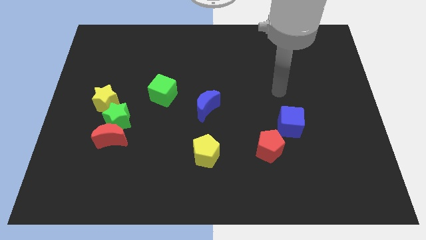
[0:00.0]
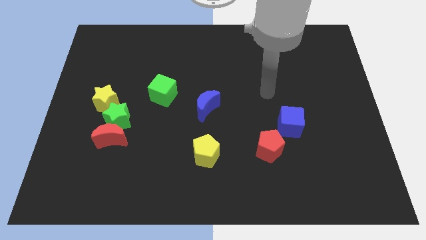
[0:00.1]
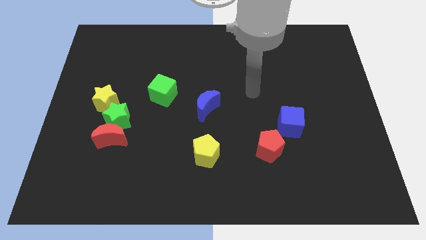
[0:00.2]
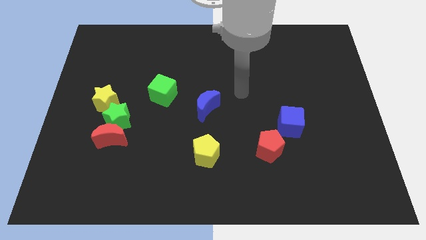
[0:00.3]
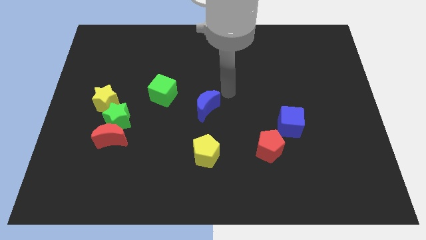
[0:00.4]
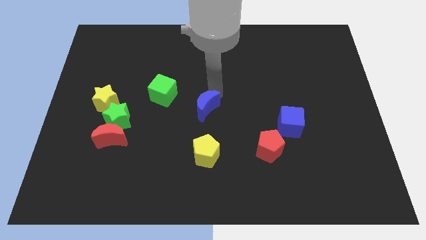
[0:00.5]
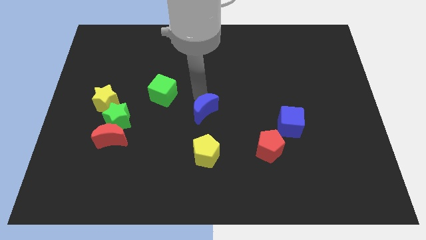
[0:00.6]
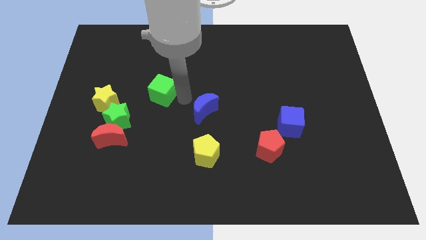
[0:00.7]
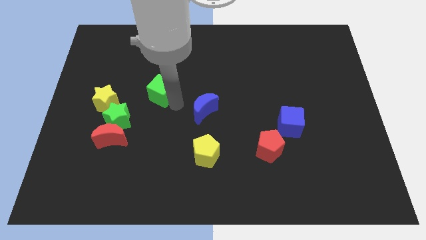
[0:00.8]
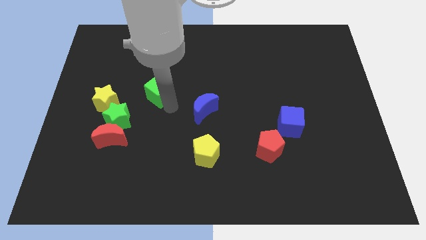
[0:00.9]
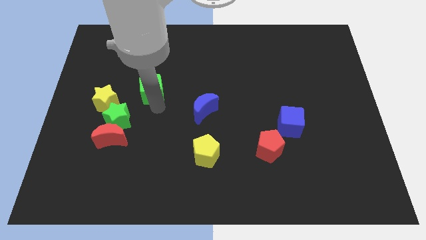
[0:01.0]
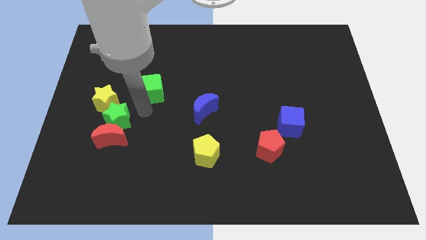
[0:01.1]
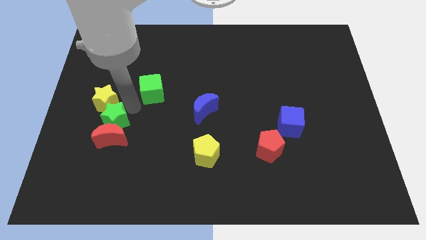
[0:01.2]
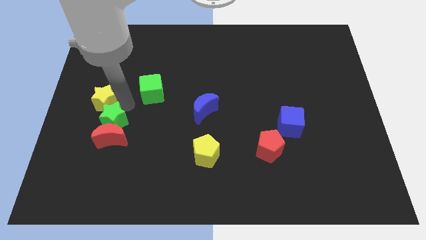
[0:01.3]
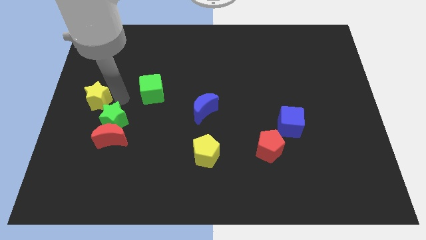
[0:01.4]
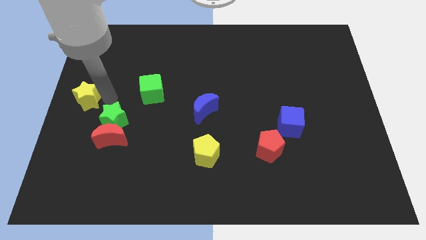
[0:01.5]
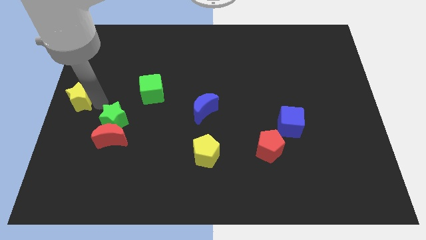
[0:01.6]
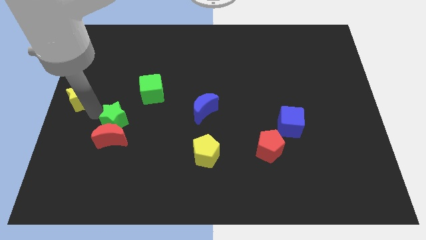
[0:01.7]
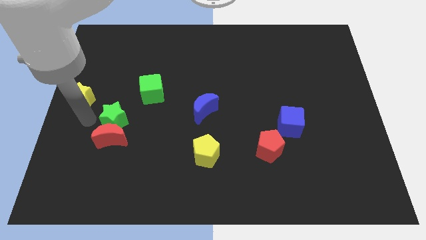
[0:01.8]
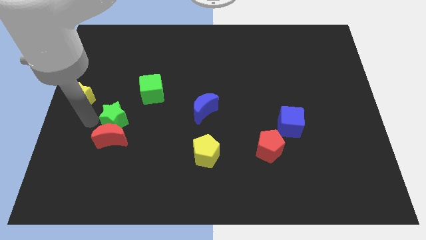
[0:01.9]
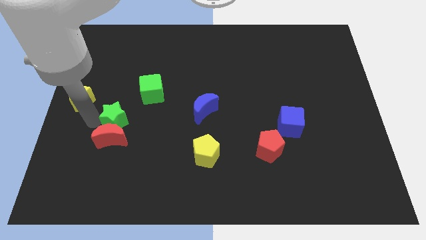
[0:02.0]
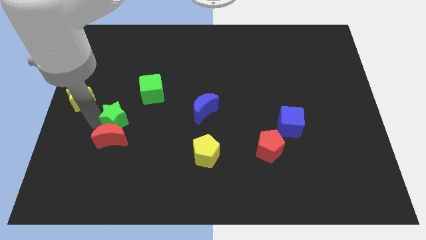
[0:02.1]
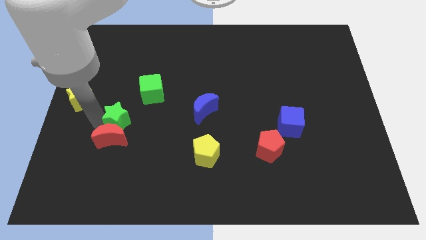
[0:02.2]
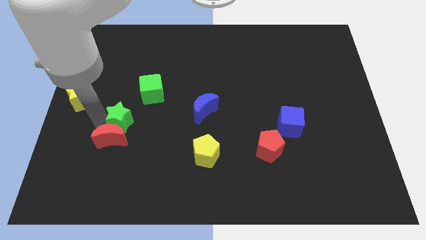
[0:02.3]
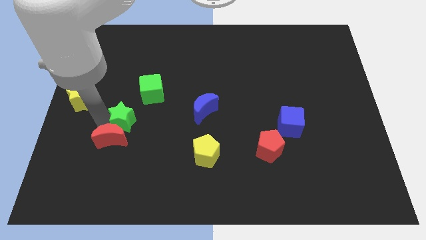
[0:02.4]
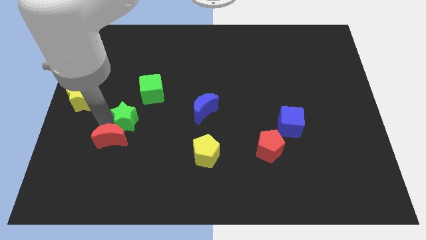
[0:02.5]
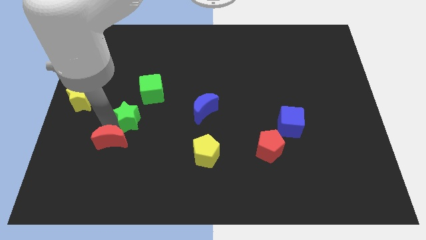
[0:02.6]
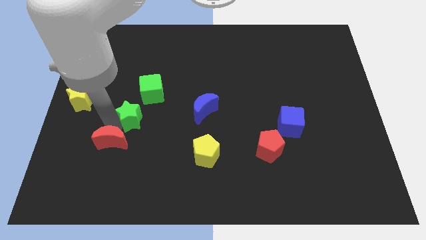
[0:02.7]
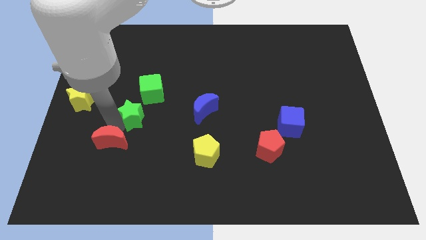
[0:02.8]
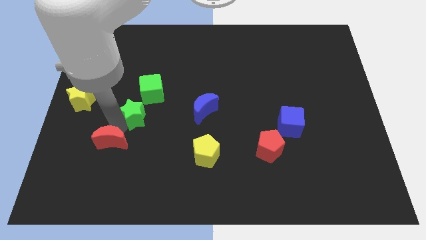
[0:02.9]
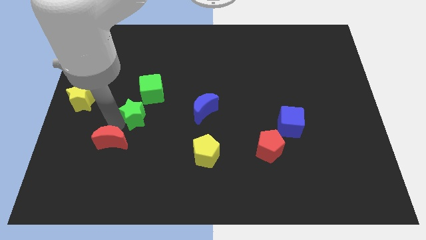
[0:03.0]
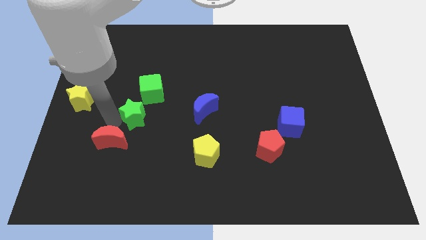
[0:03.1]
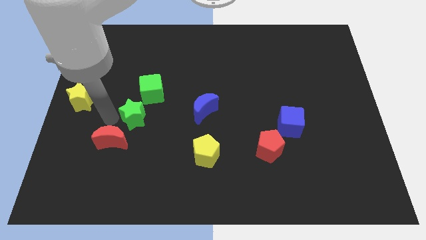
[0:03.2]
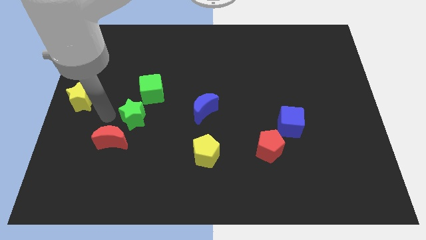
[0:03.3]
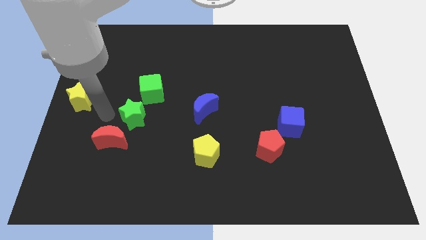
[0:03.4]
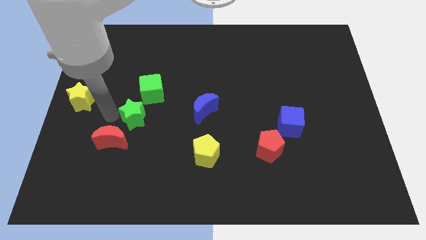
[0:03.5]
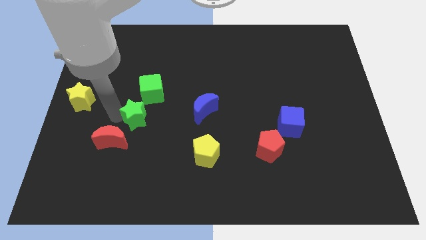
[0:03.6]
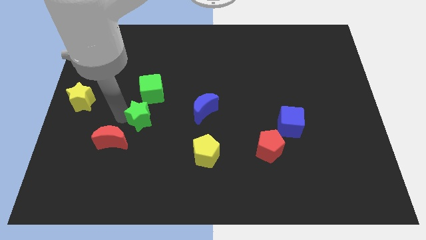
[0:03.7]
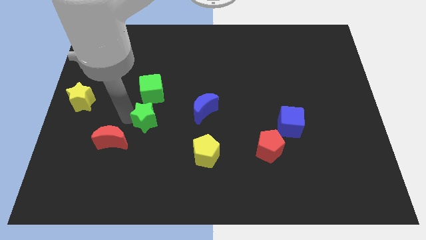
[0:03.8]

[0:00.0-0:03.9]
move the green star away from the red moon and yellow star

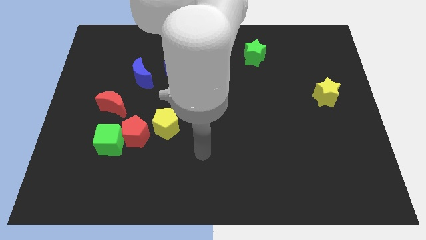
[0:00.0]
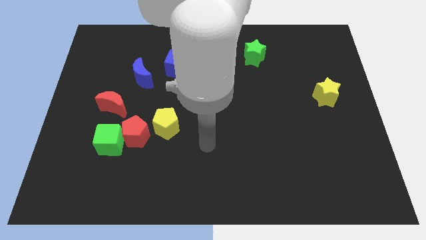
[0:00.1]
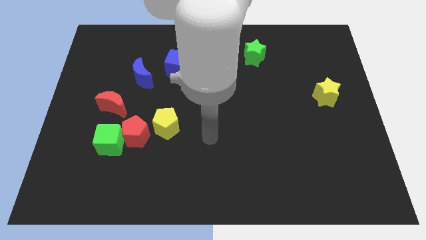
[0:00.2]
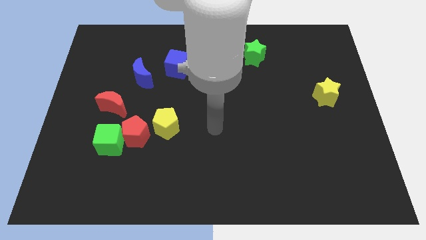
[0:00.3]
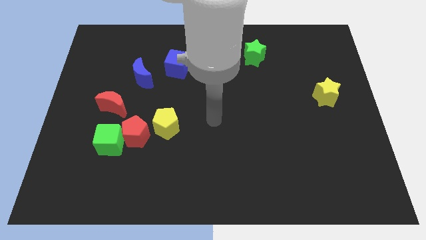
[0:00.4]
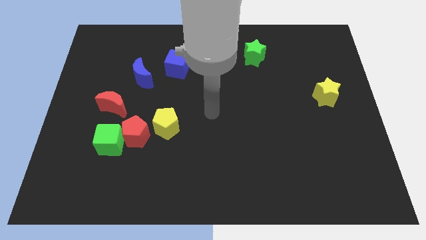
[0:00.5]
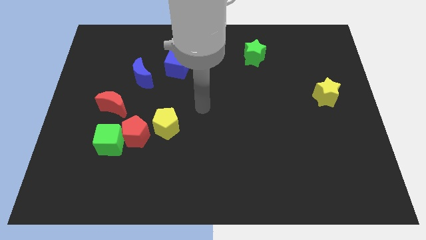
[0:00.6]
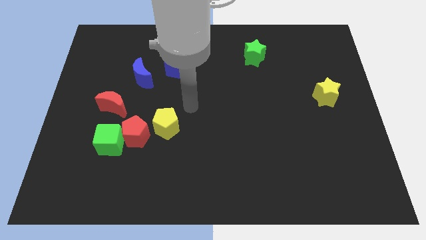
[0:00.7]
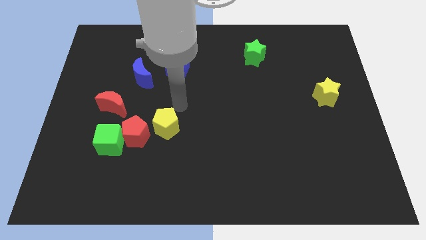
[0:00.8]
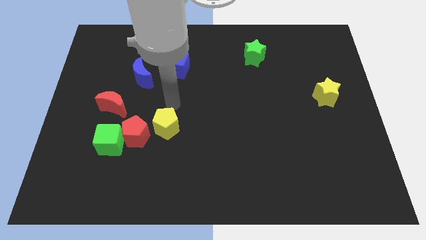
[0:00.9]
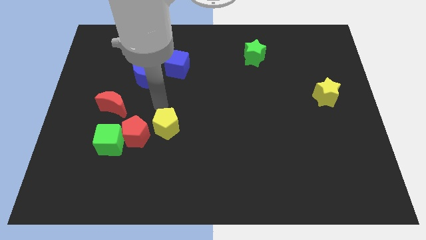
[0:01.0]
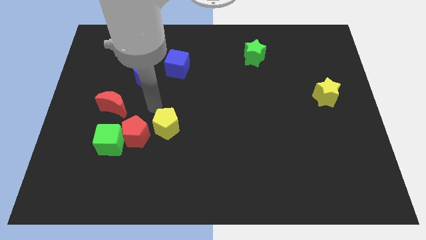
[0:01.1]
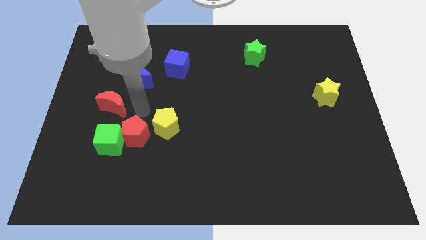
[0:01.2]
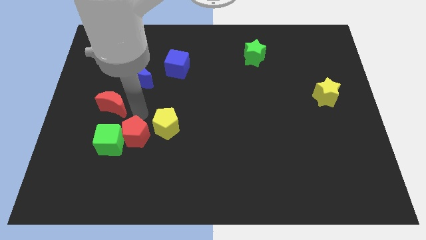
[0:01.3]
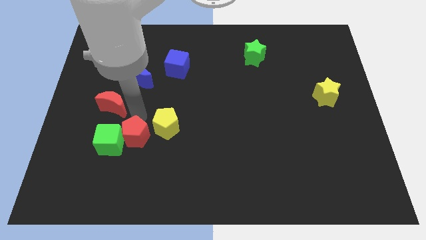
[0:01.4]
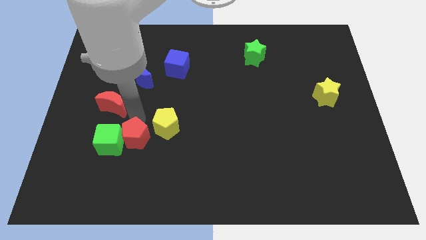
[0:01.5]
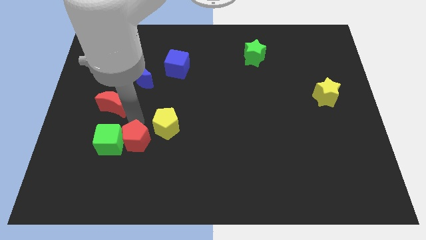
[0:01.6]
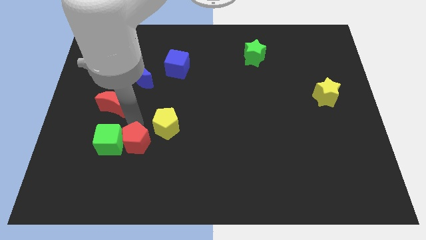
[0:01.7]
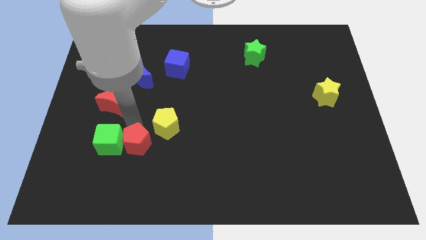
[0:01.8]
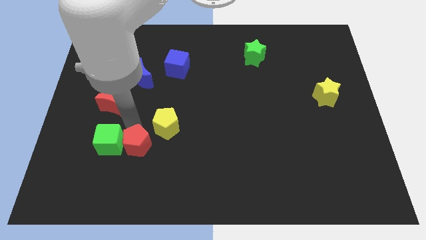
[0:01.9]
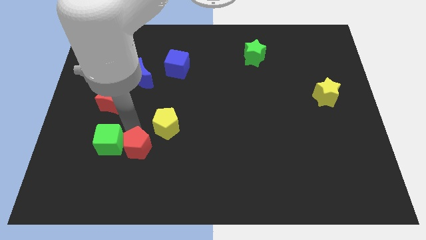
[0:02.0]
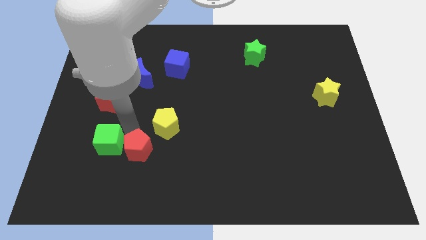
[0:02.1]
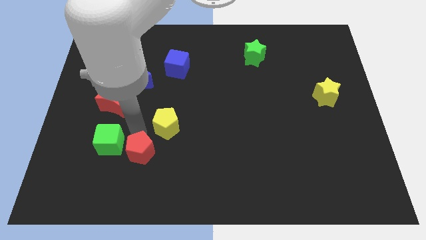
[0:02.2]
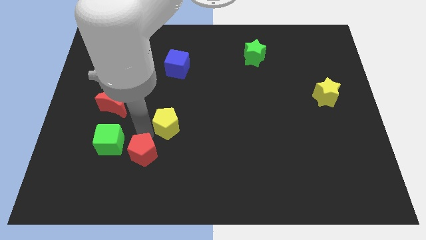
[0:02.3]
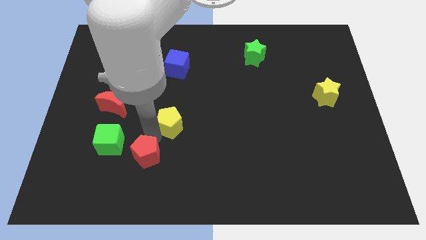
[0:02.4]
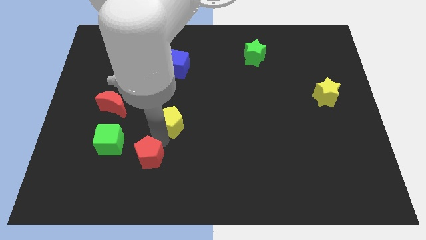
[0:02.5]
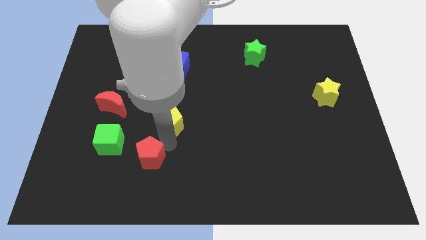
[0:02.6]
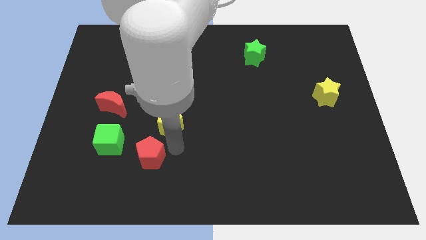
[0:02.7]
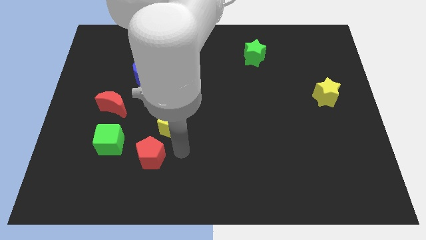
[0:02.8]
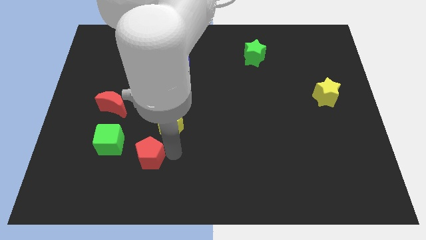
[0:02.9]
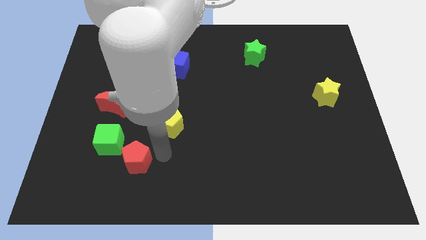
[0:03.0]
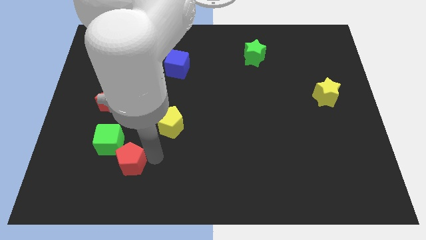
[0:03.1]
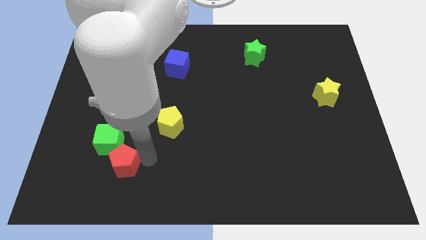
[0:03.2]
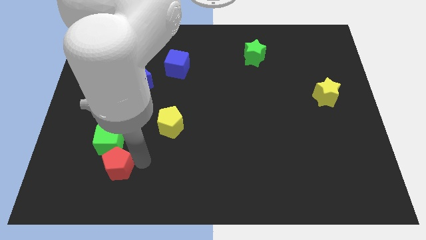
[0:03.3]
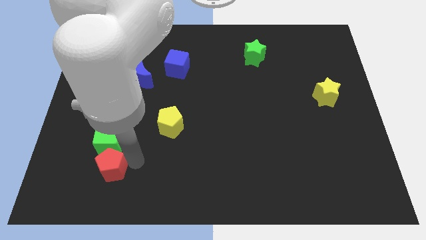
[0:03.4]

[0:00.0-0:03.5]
separate the red pentagon from the green cube and yellow pentagon

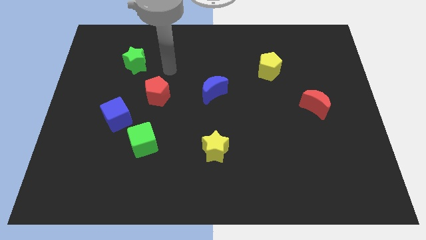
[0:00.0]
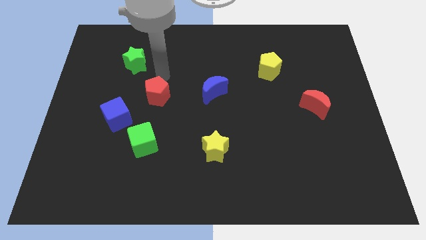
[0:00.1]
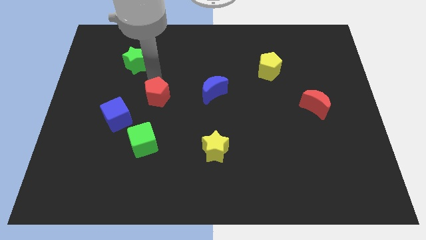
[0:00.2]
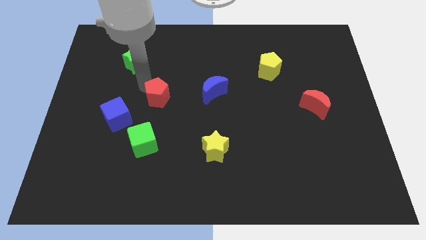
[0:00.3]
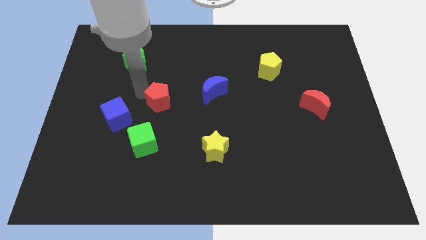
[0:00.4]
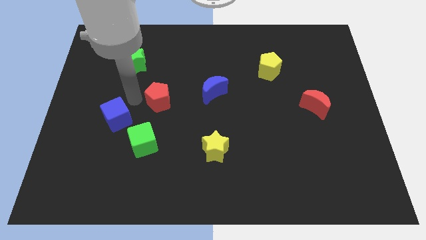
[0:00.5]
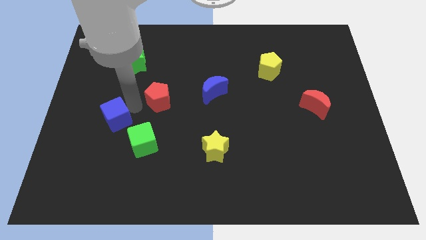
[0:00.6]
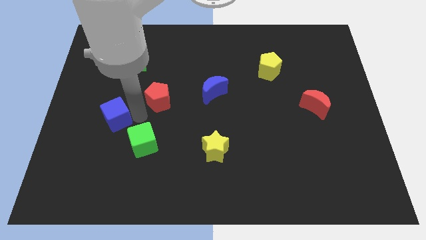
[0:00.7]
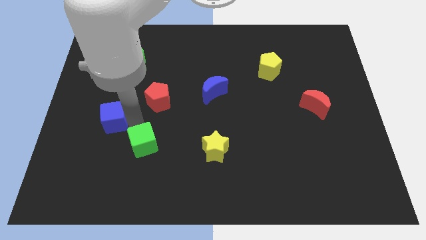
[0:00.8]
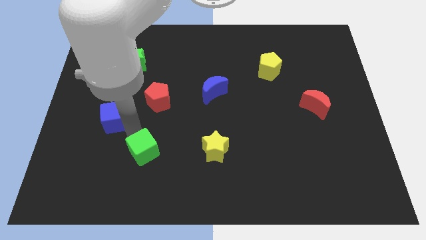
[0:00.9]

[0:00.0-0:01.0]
move the blue cube away from the green cube

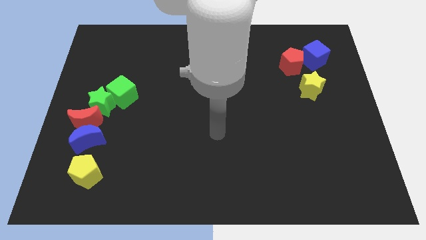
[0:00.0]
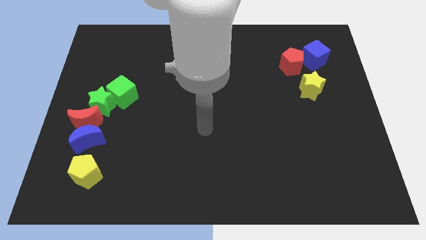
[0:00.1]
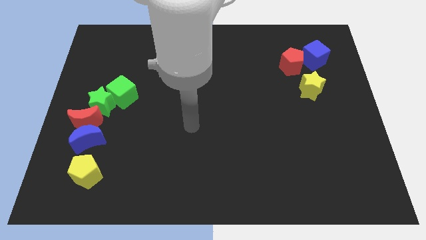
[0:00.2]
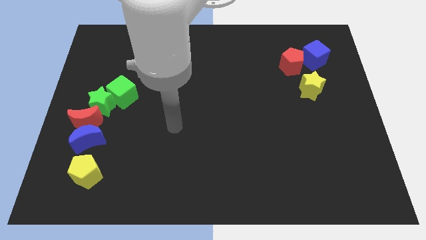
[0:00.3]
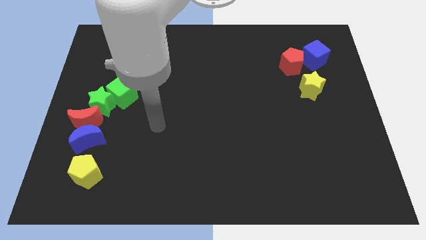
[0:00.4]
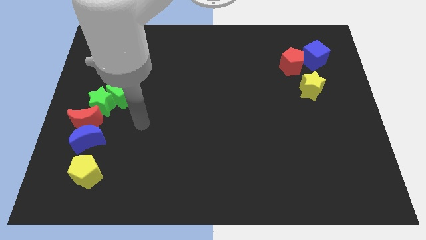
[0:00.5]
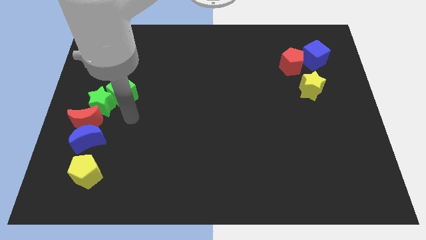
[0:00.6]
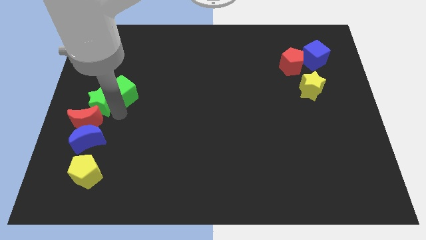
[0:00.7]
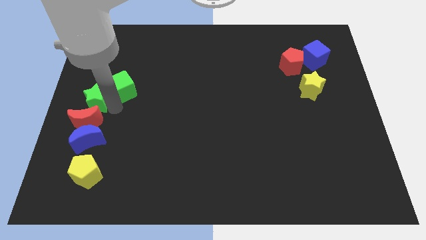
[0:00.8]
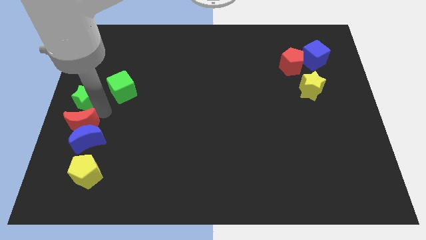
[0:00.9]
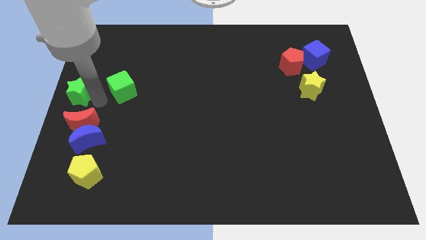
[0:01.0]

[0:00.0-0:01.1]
separate the green cube from the green star
